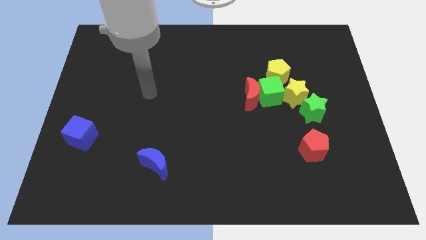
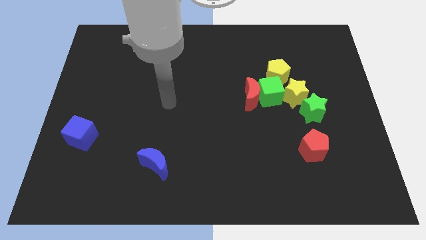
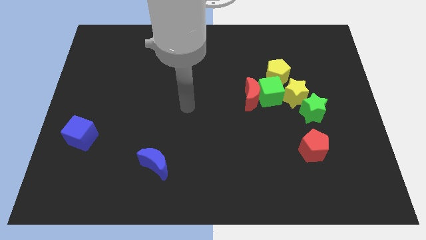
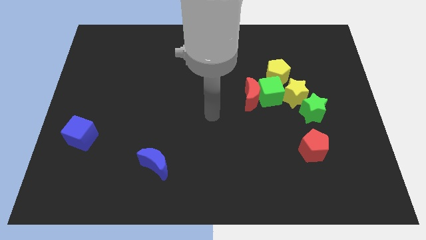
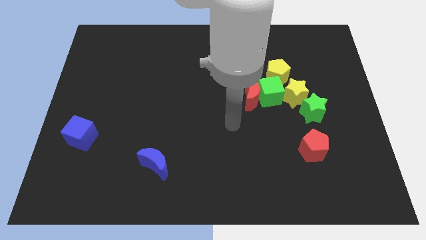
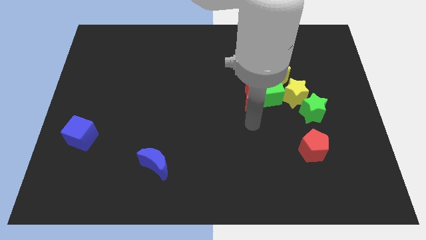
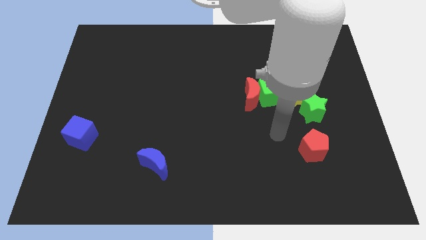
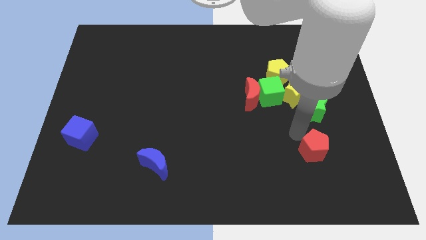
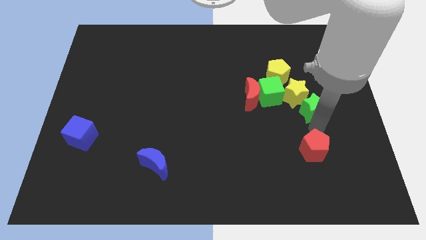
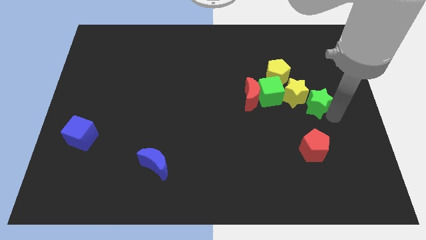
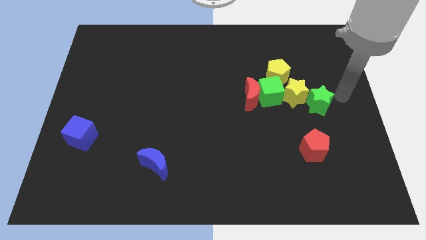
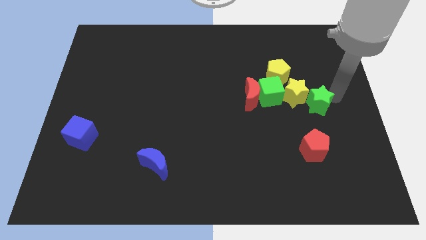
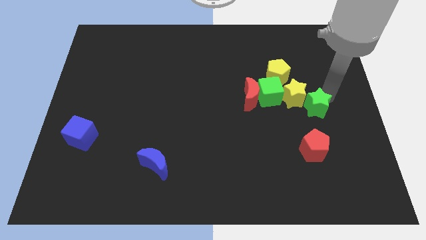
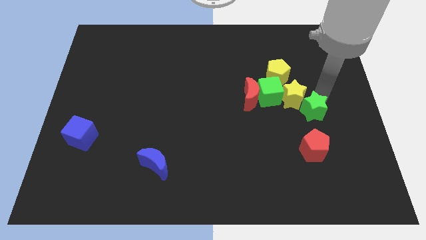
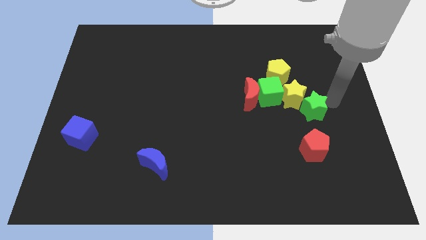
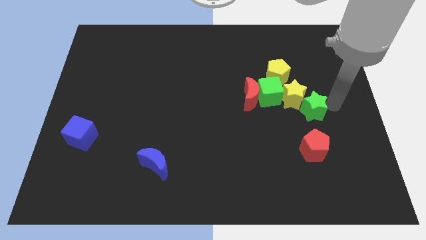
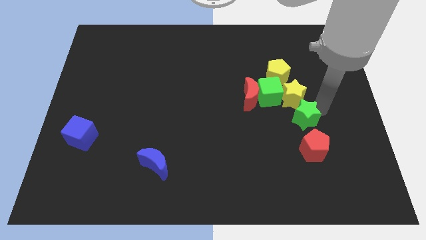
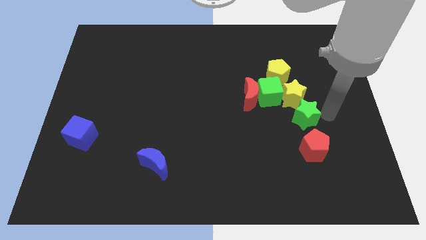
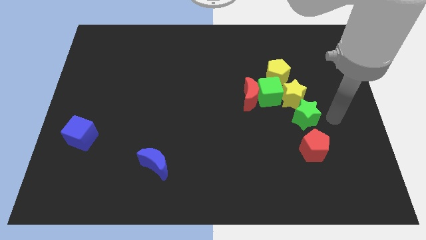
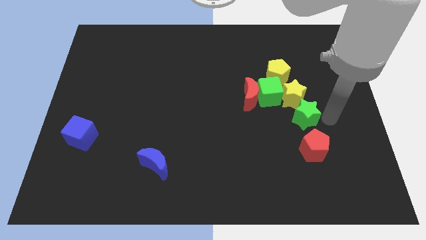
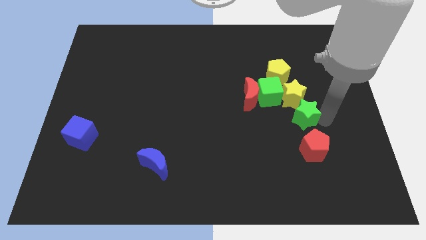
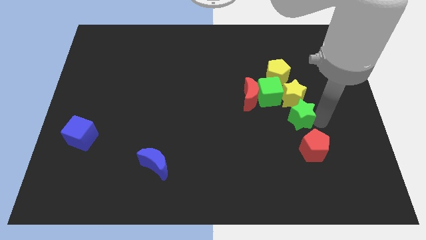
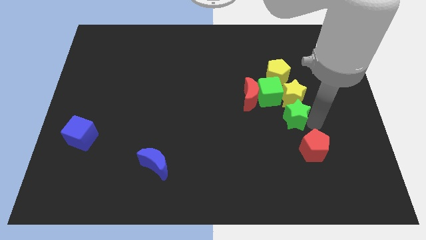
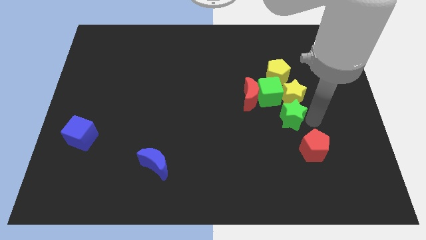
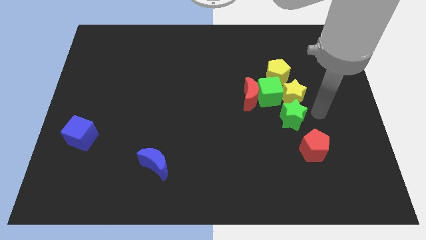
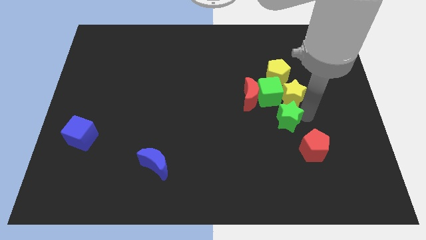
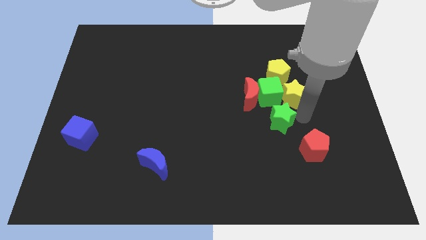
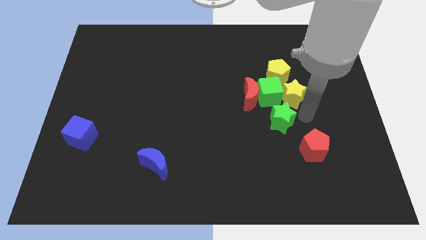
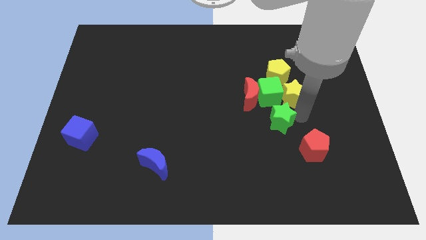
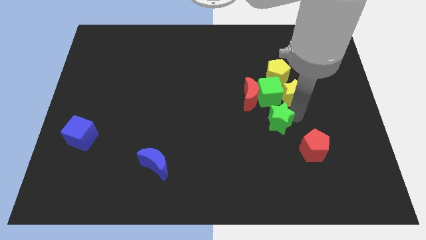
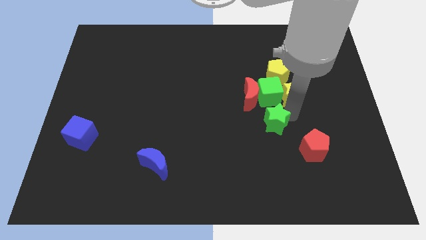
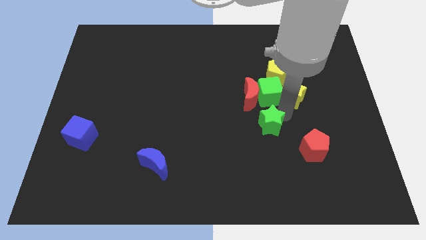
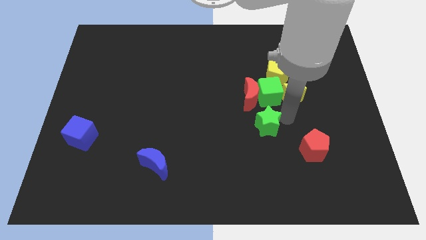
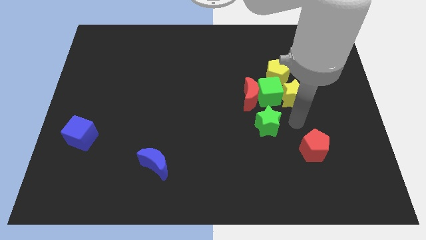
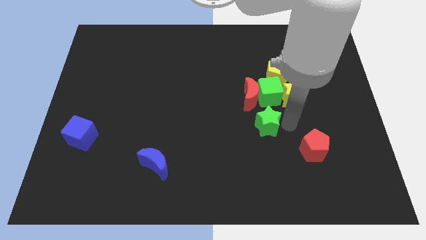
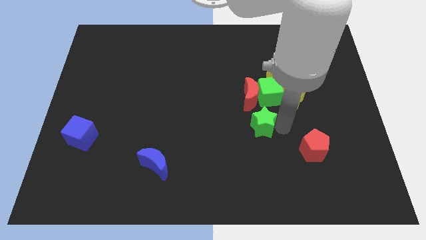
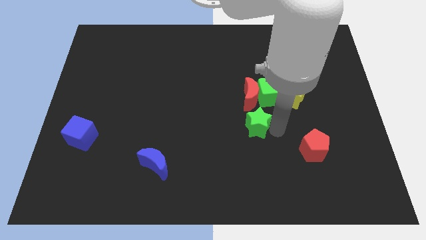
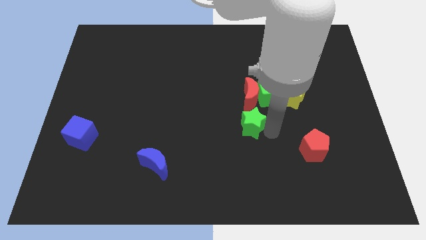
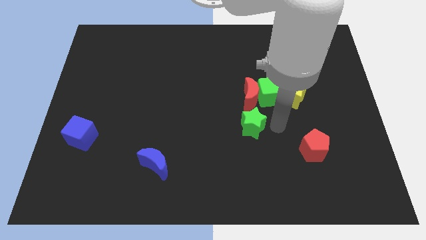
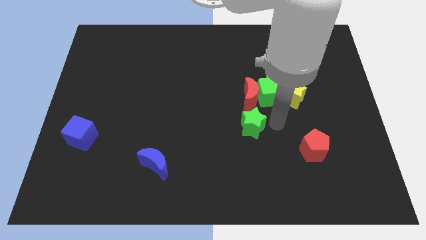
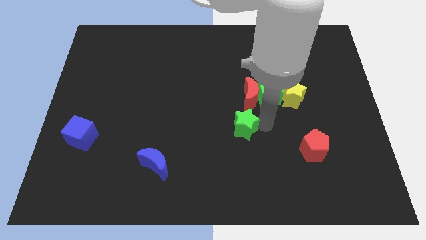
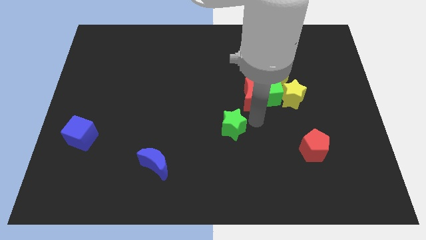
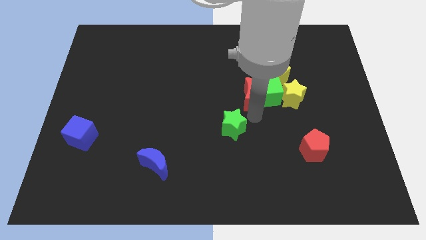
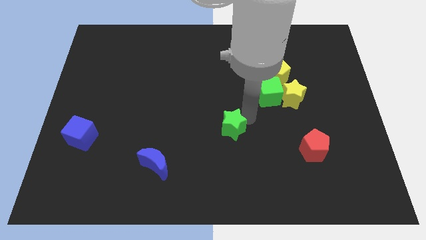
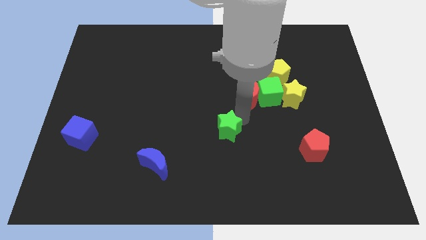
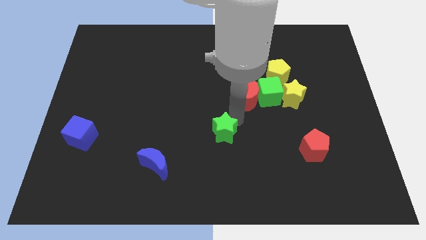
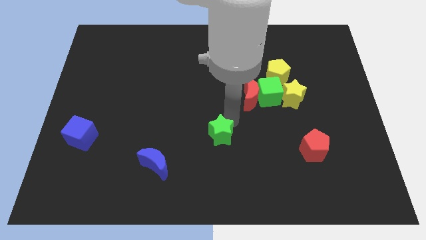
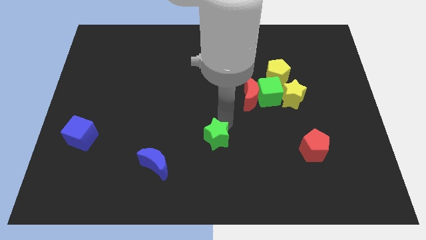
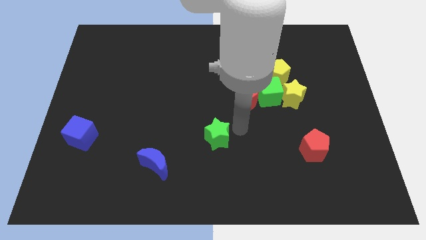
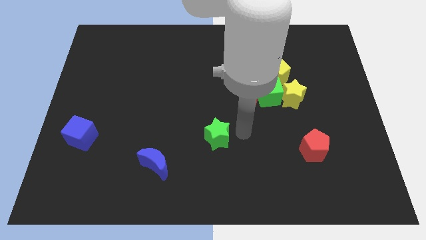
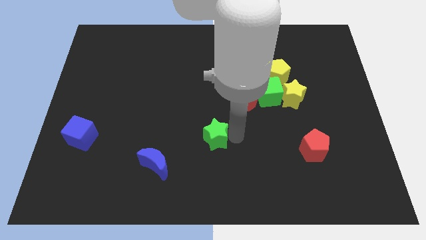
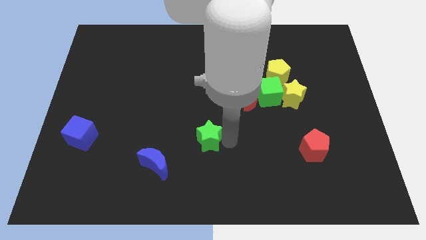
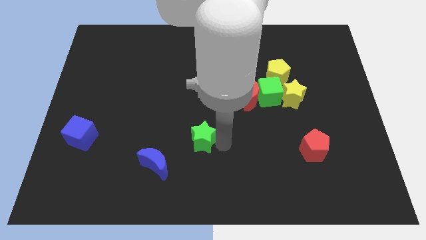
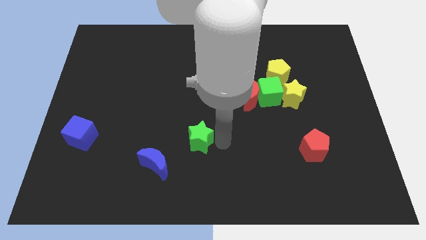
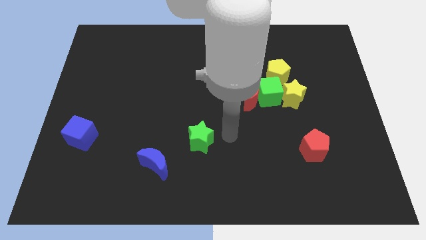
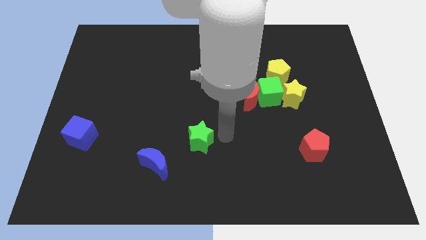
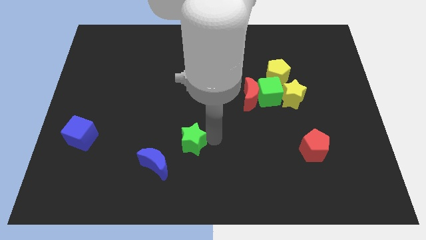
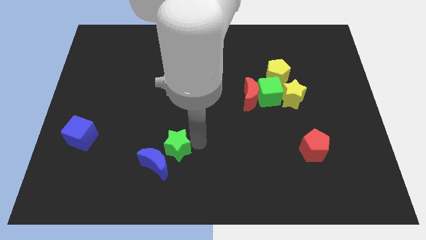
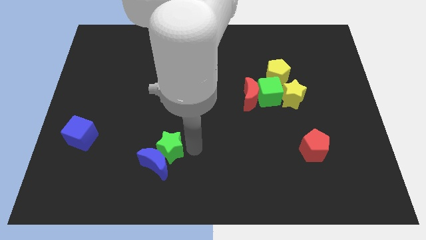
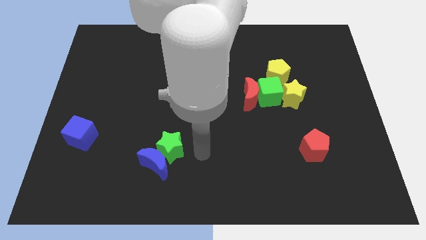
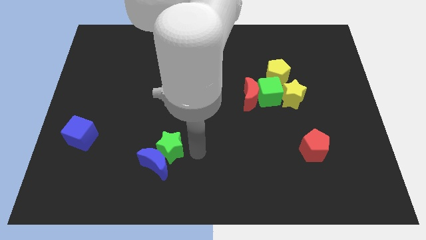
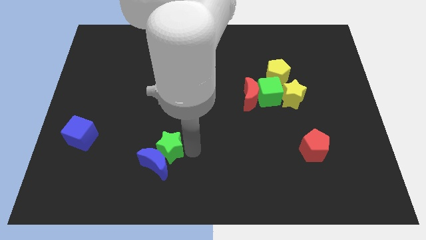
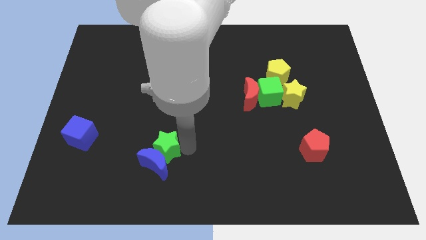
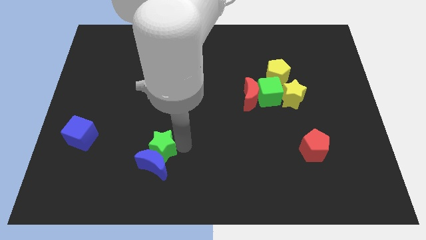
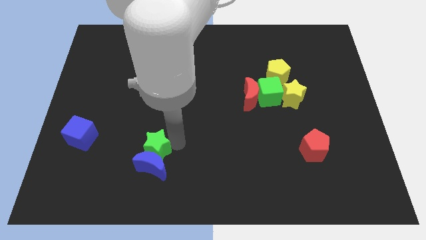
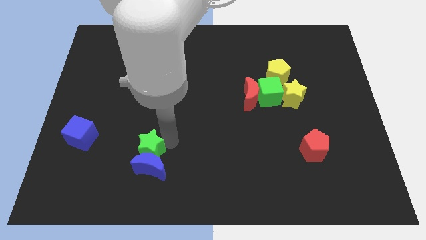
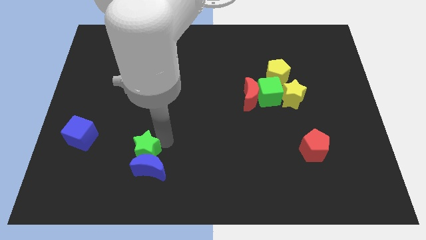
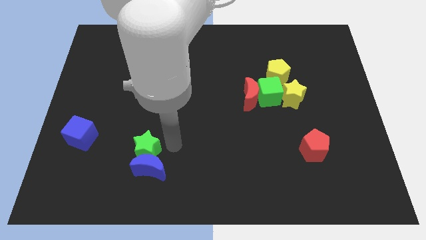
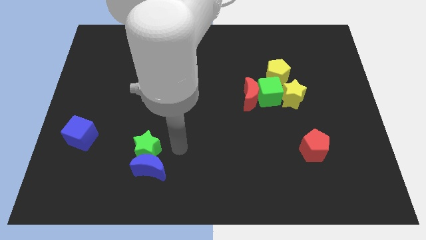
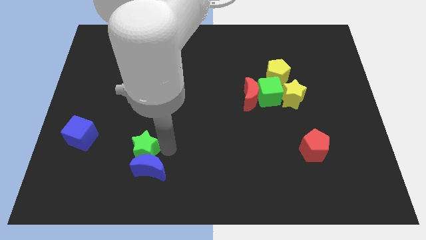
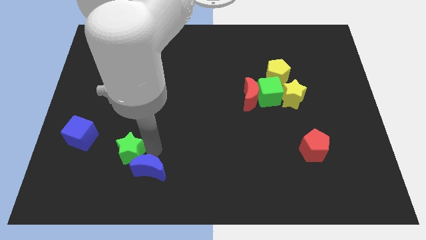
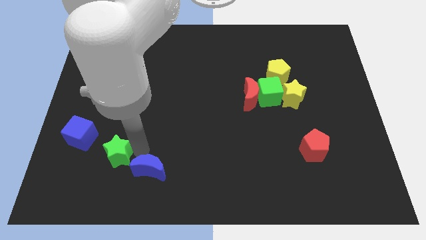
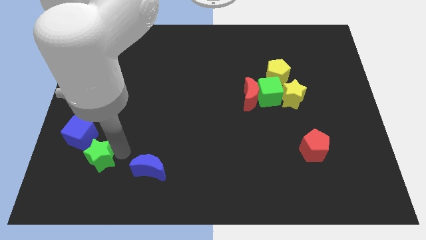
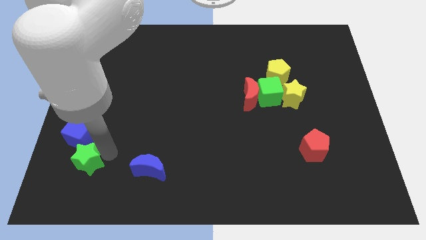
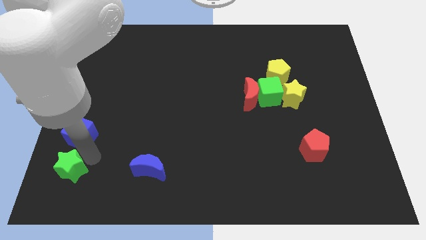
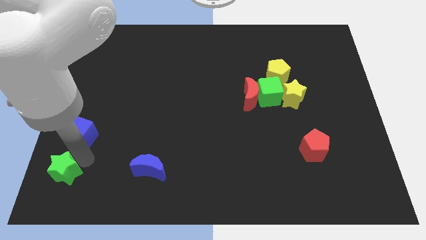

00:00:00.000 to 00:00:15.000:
push the green star to the bottom left of the board
